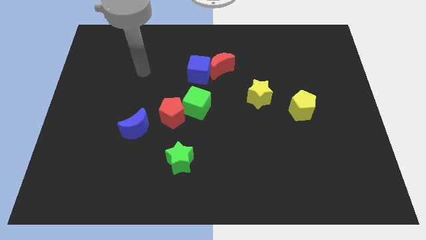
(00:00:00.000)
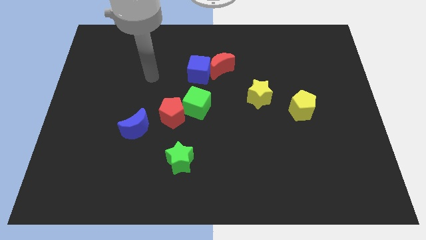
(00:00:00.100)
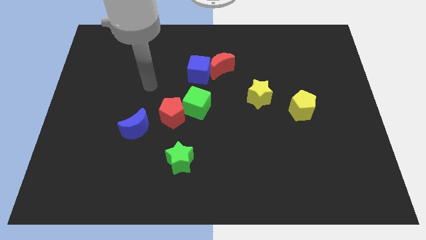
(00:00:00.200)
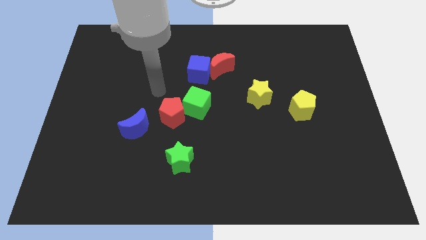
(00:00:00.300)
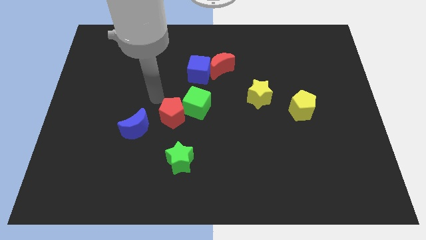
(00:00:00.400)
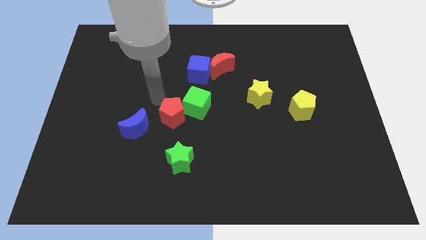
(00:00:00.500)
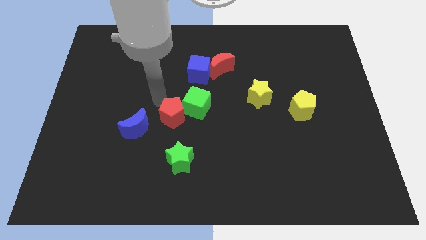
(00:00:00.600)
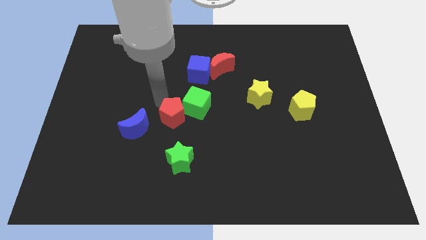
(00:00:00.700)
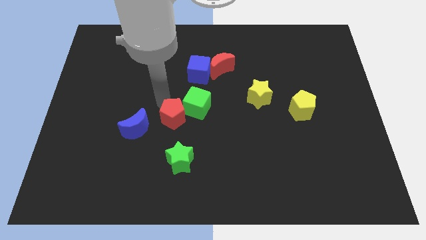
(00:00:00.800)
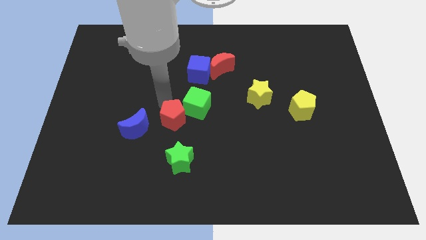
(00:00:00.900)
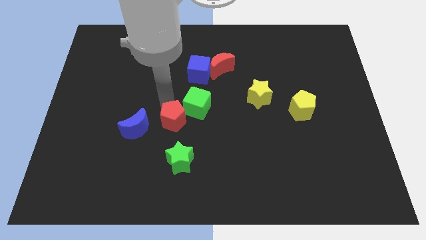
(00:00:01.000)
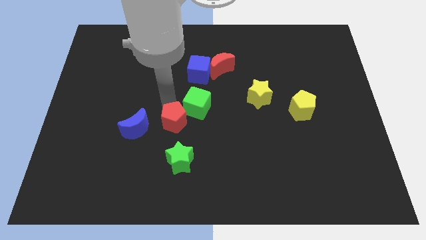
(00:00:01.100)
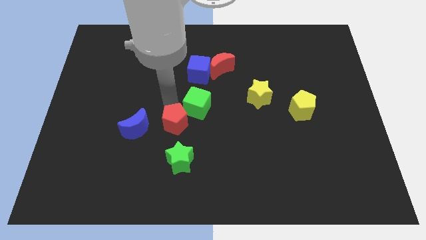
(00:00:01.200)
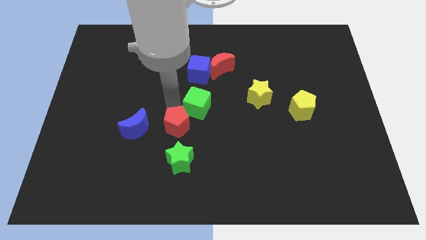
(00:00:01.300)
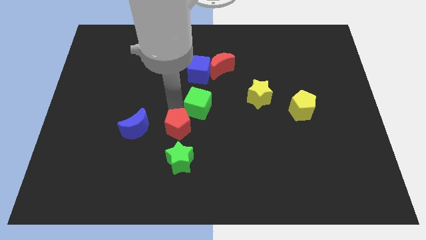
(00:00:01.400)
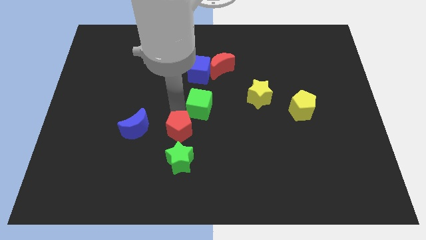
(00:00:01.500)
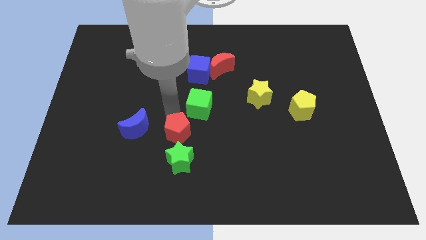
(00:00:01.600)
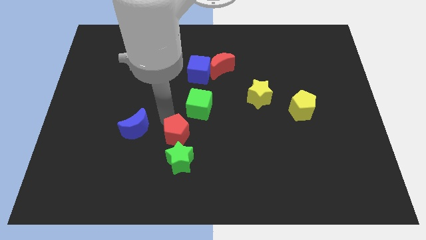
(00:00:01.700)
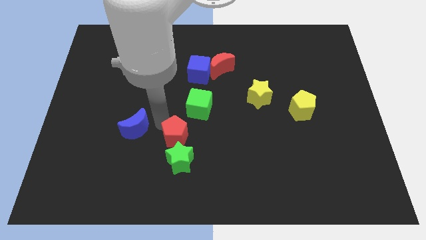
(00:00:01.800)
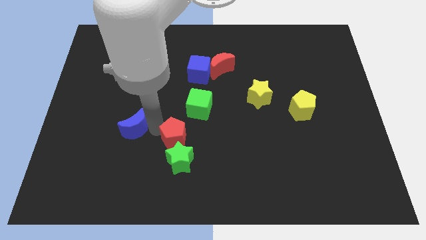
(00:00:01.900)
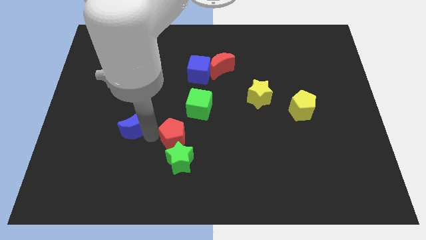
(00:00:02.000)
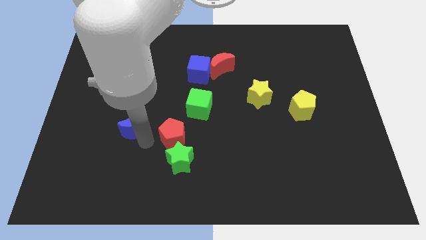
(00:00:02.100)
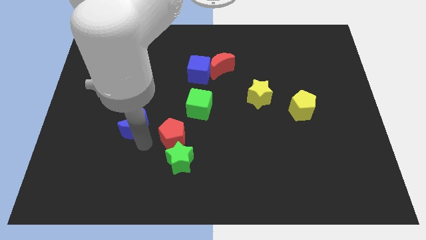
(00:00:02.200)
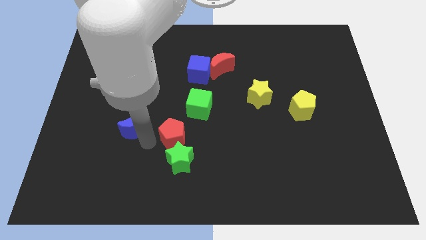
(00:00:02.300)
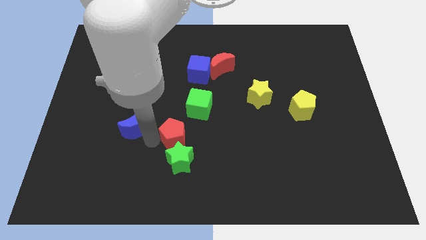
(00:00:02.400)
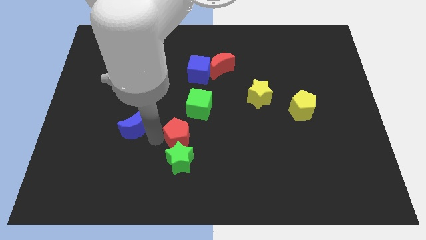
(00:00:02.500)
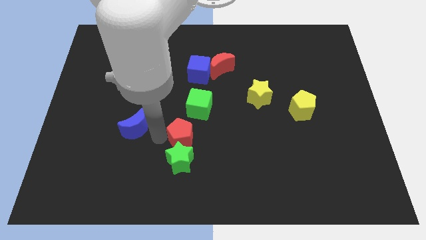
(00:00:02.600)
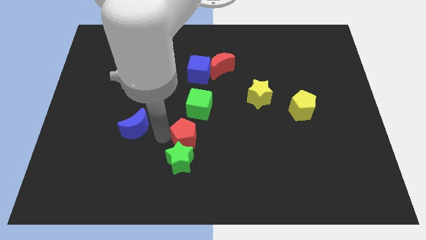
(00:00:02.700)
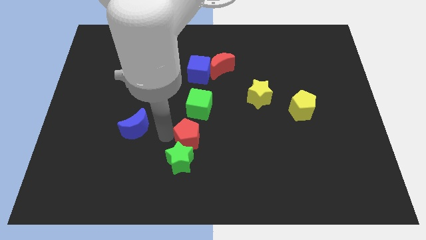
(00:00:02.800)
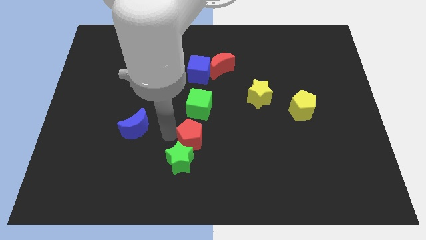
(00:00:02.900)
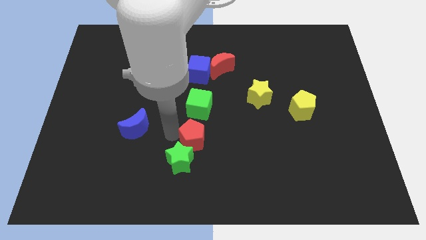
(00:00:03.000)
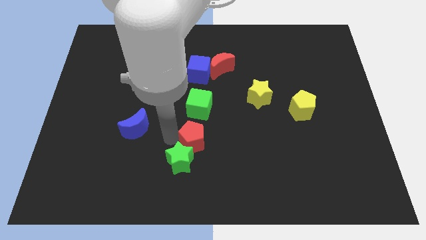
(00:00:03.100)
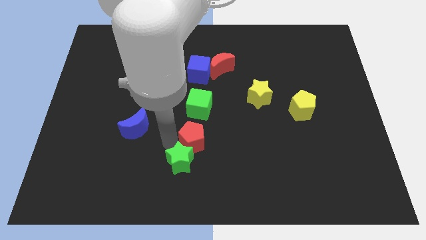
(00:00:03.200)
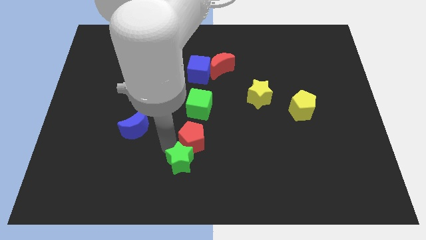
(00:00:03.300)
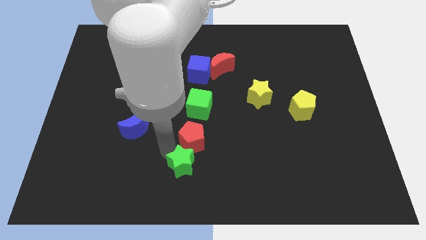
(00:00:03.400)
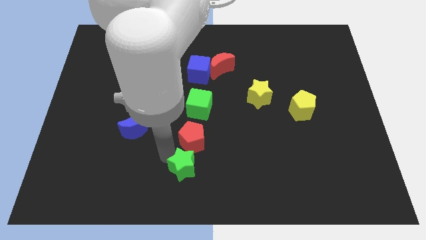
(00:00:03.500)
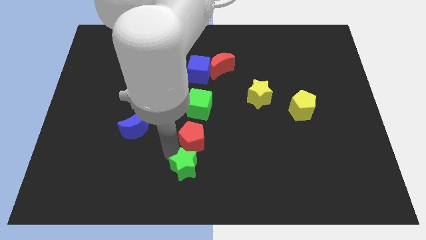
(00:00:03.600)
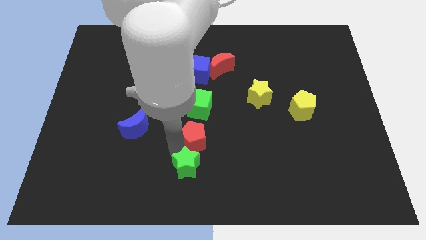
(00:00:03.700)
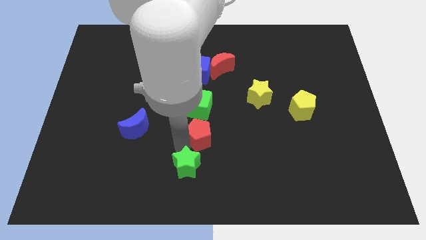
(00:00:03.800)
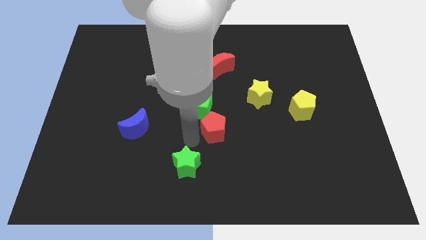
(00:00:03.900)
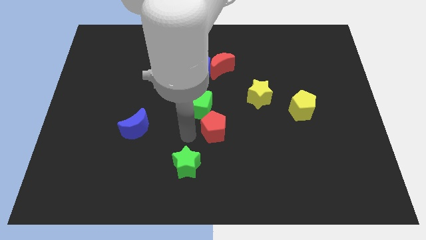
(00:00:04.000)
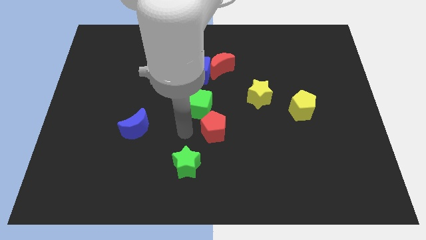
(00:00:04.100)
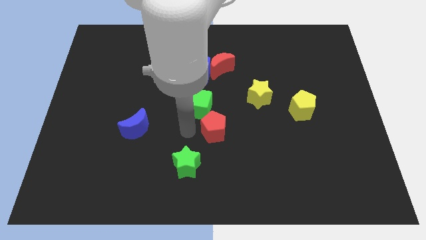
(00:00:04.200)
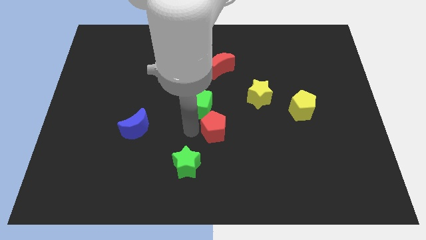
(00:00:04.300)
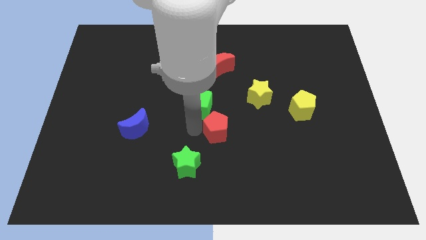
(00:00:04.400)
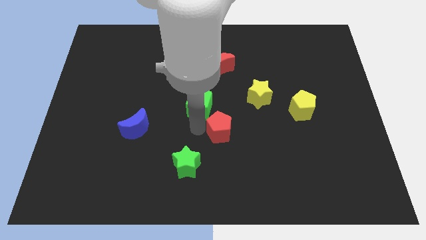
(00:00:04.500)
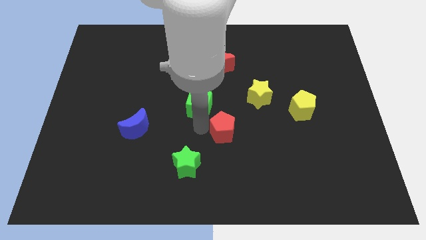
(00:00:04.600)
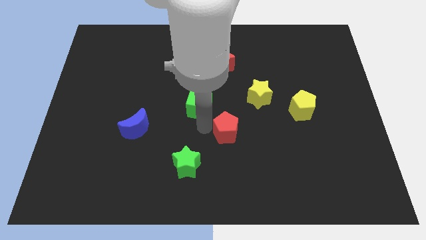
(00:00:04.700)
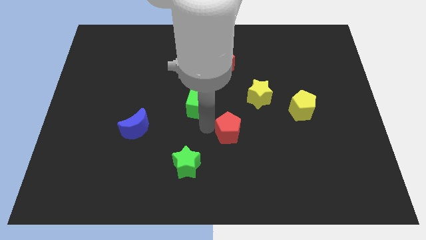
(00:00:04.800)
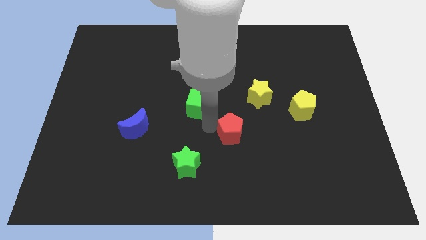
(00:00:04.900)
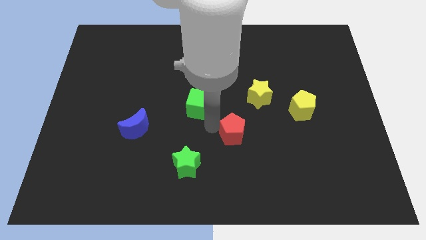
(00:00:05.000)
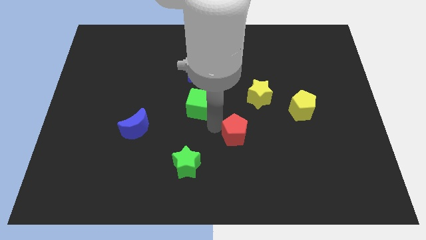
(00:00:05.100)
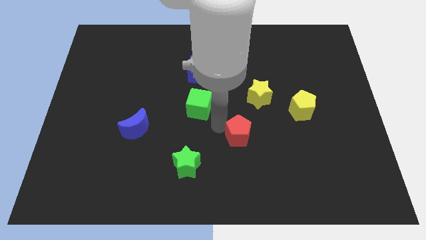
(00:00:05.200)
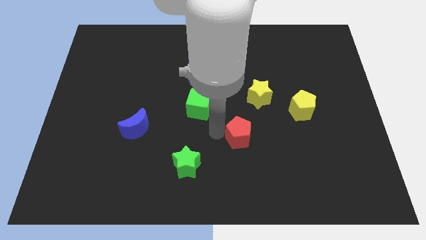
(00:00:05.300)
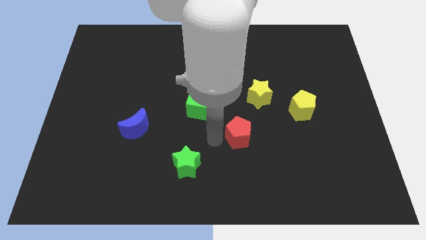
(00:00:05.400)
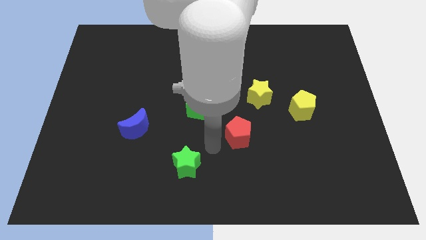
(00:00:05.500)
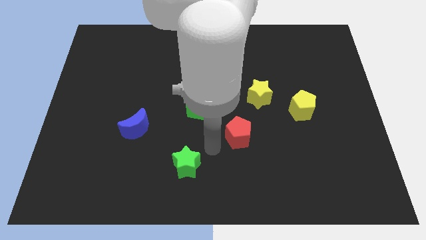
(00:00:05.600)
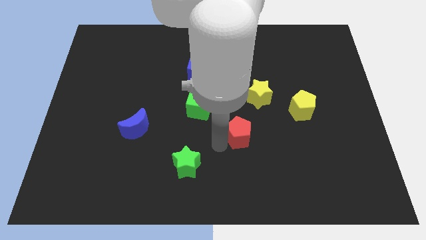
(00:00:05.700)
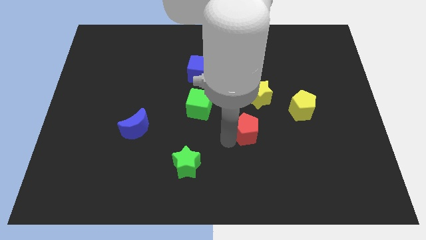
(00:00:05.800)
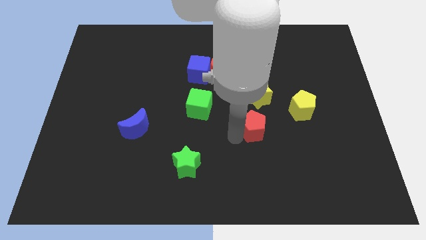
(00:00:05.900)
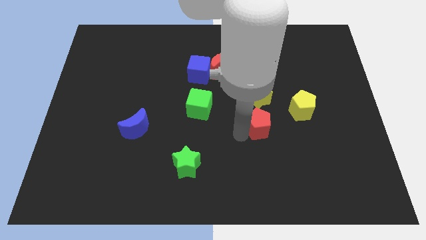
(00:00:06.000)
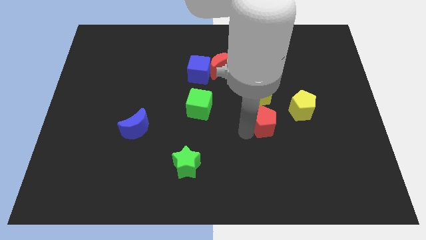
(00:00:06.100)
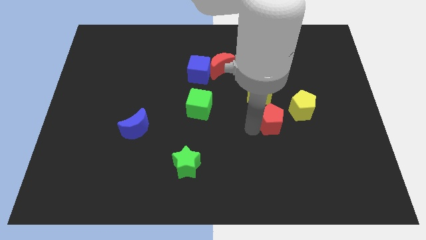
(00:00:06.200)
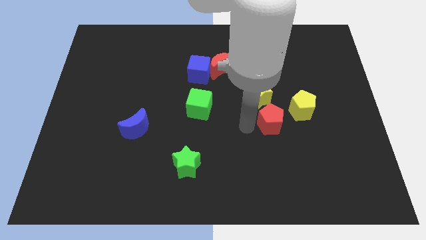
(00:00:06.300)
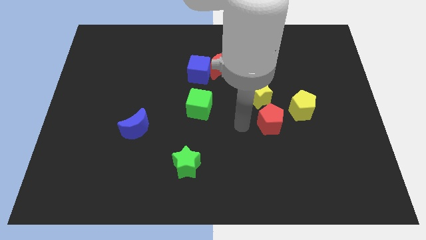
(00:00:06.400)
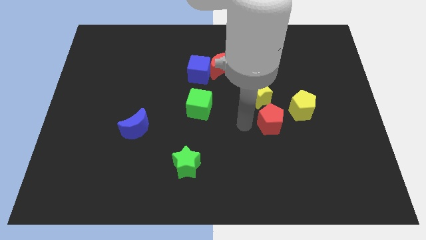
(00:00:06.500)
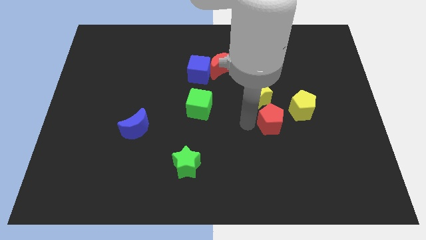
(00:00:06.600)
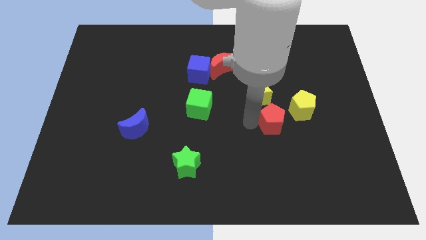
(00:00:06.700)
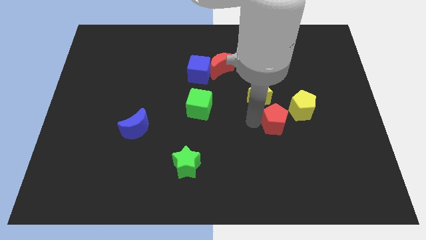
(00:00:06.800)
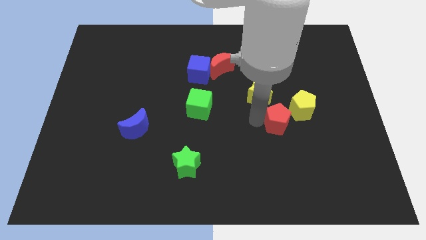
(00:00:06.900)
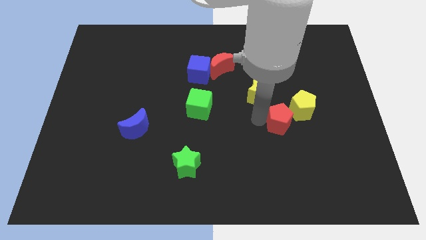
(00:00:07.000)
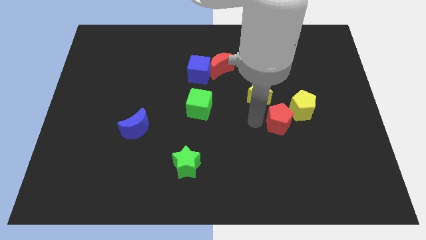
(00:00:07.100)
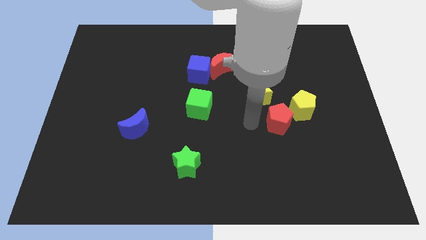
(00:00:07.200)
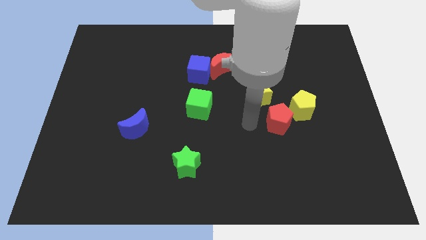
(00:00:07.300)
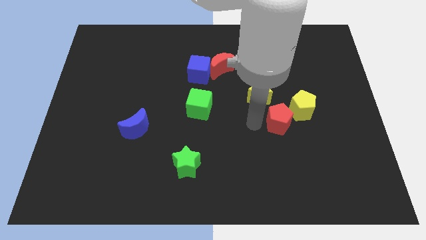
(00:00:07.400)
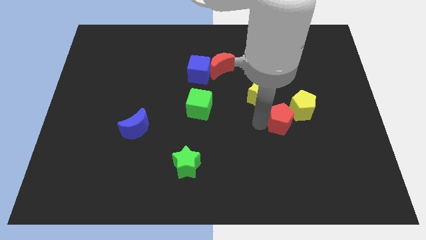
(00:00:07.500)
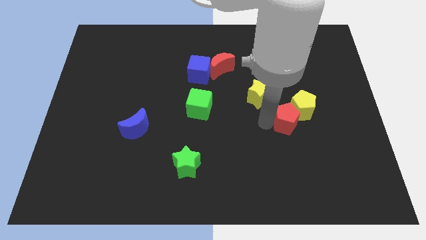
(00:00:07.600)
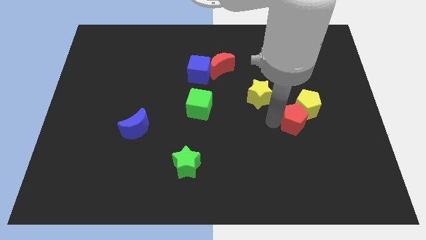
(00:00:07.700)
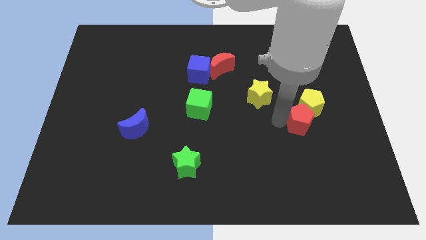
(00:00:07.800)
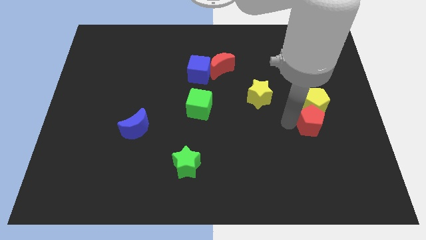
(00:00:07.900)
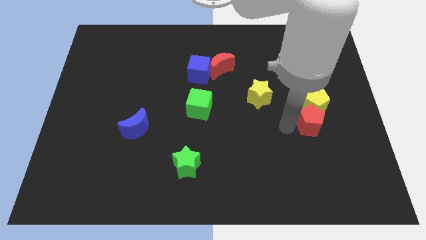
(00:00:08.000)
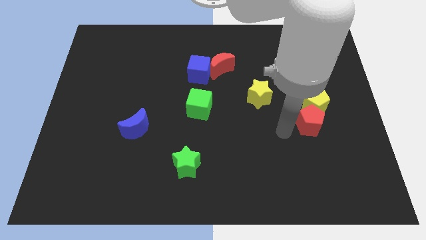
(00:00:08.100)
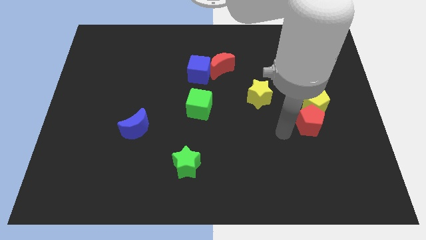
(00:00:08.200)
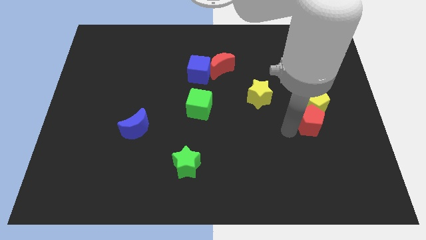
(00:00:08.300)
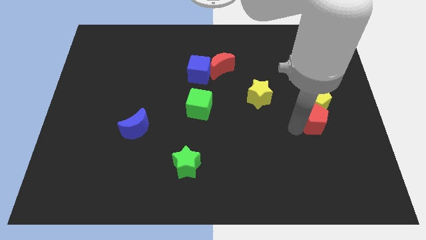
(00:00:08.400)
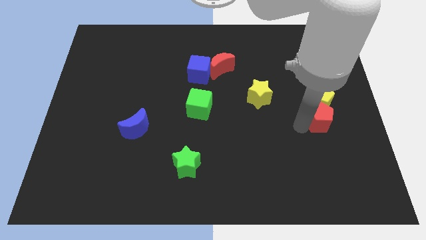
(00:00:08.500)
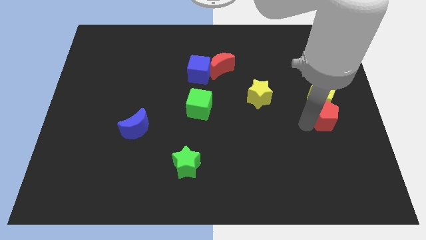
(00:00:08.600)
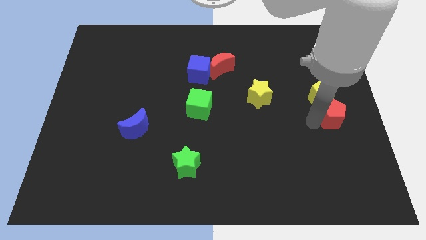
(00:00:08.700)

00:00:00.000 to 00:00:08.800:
push the red pentagon to the center right
